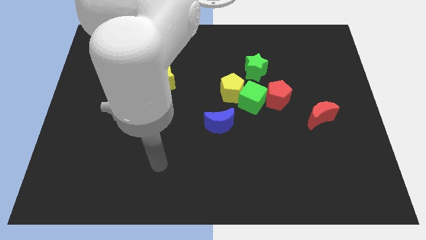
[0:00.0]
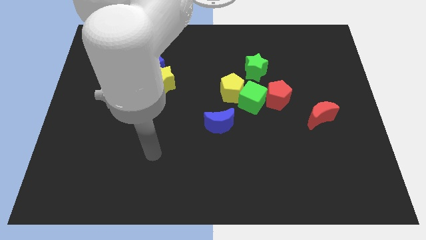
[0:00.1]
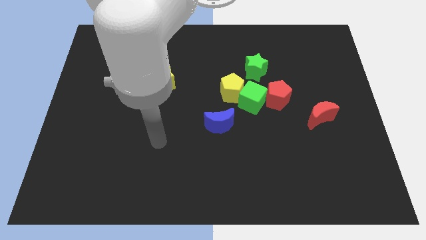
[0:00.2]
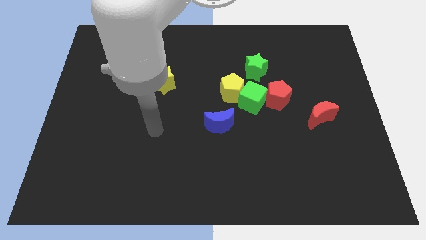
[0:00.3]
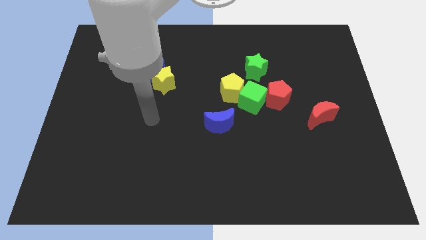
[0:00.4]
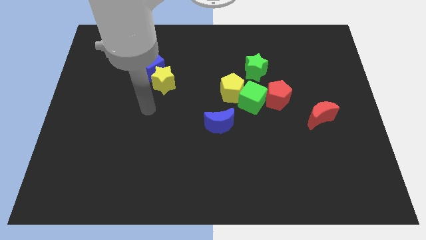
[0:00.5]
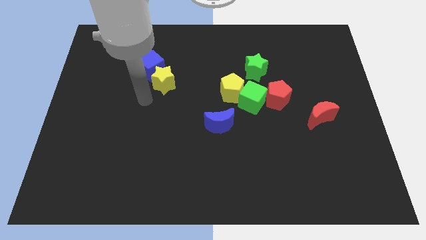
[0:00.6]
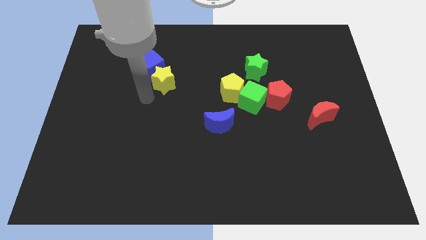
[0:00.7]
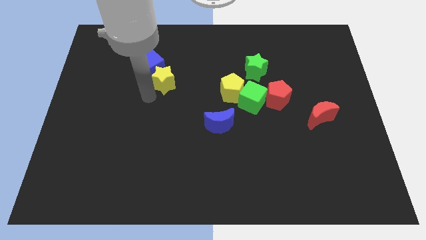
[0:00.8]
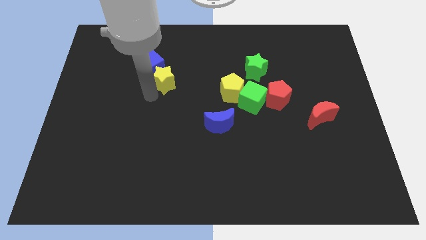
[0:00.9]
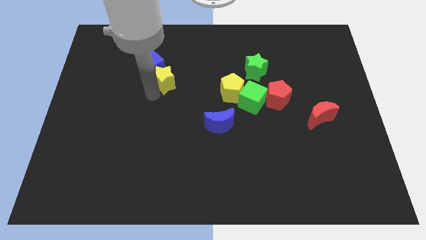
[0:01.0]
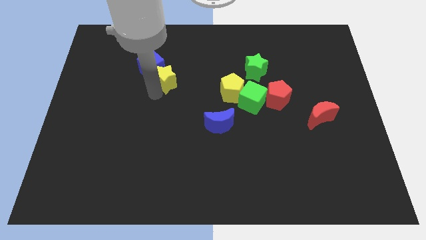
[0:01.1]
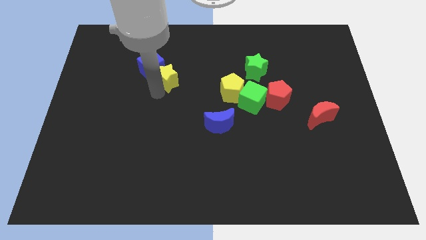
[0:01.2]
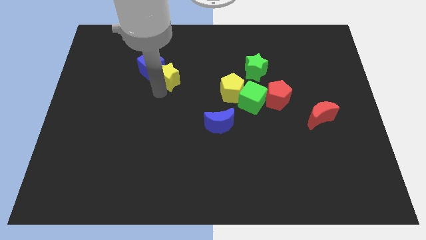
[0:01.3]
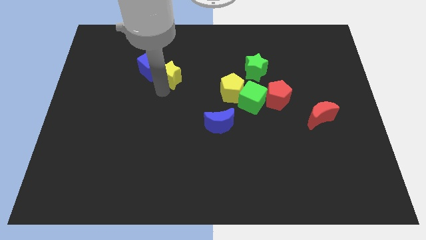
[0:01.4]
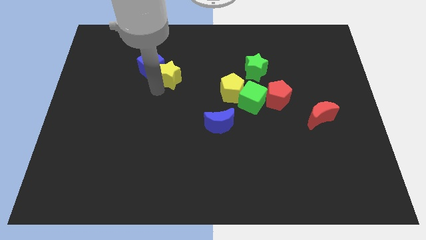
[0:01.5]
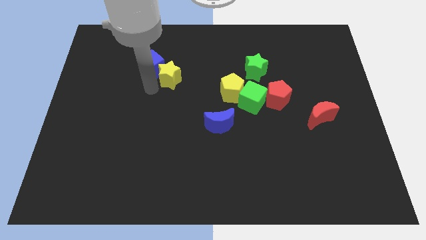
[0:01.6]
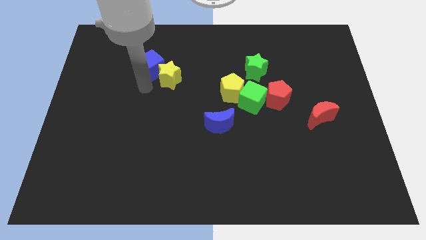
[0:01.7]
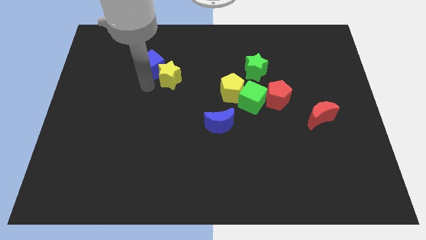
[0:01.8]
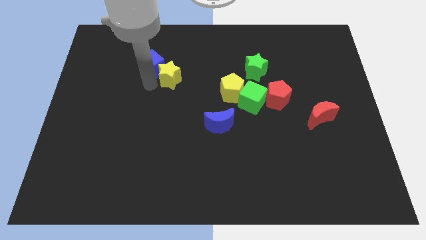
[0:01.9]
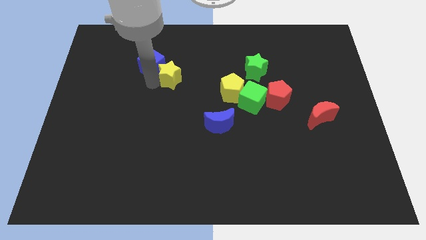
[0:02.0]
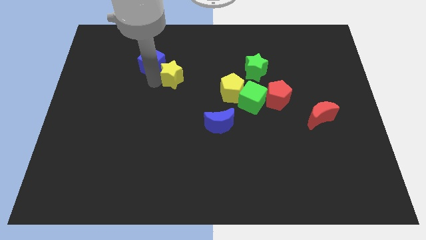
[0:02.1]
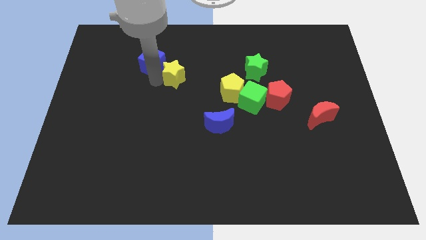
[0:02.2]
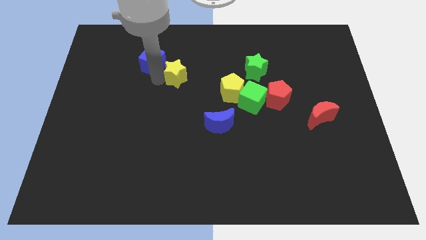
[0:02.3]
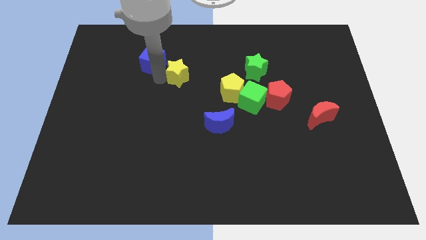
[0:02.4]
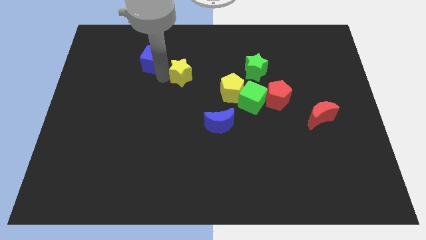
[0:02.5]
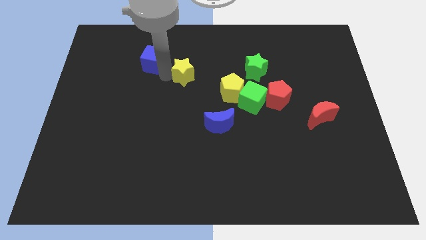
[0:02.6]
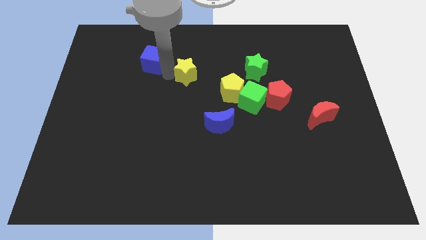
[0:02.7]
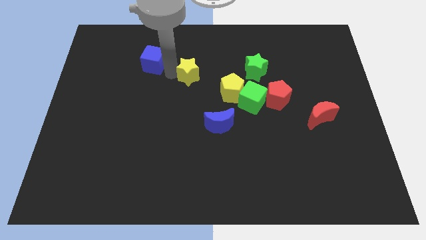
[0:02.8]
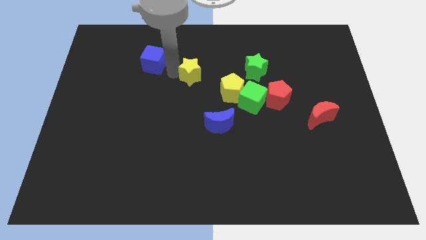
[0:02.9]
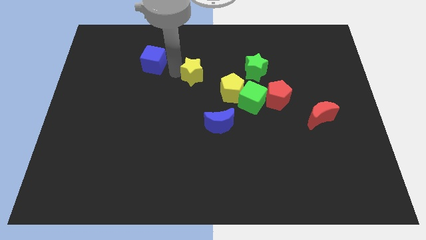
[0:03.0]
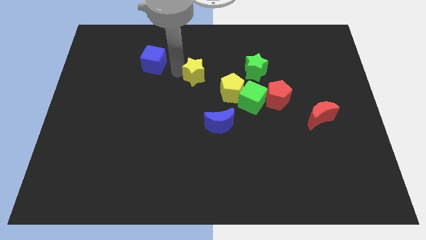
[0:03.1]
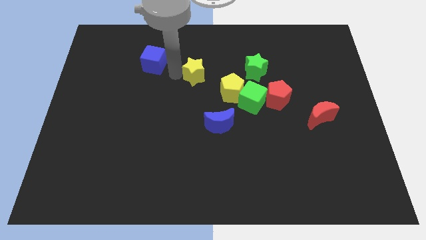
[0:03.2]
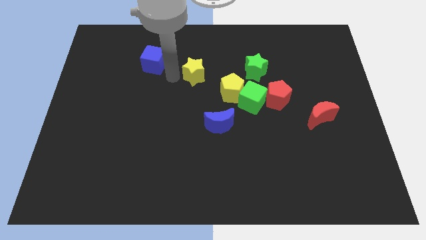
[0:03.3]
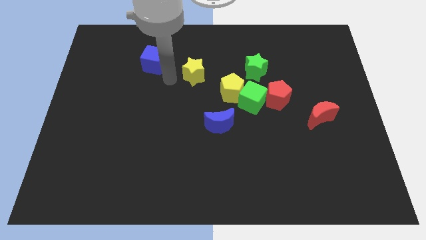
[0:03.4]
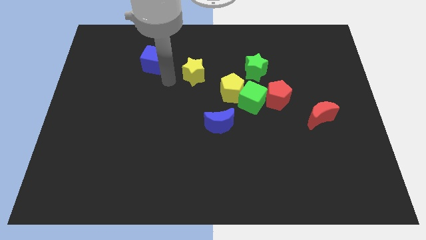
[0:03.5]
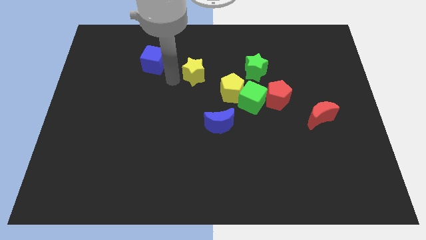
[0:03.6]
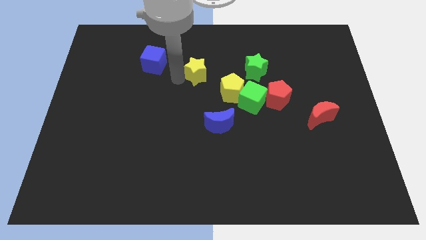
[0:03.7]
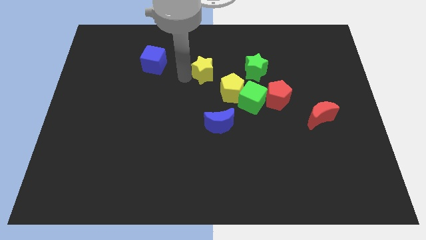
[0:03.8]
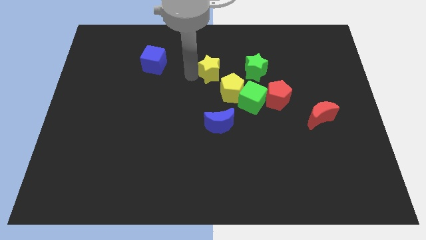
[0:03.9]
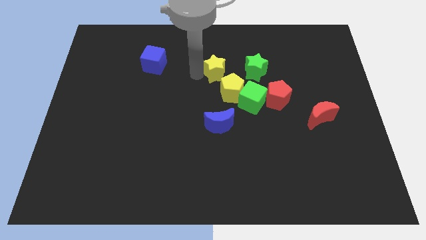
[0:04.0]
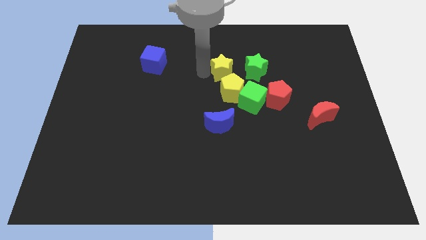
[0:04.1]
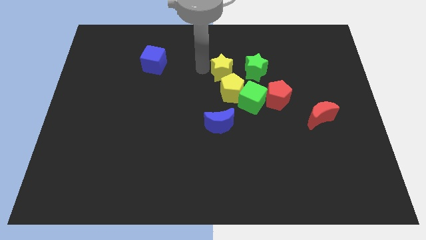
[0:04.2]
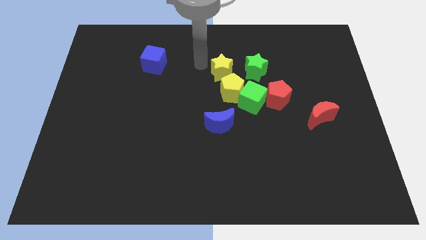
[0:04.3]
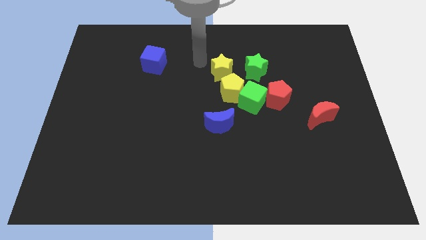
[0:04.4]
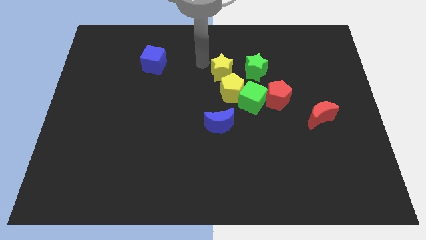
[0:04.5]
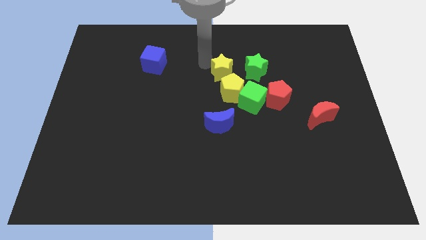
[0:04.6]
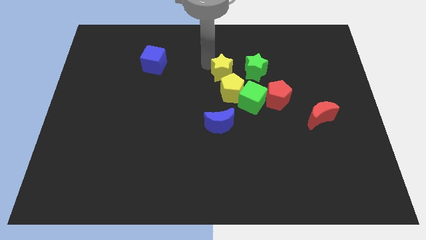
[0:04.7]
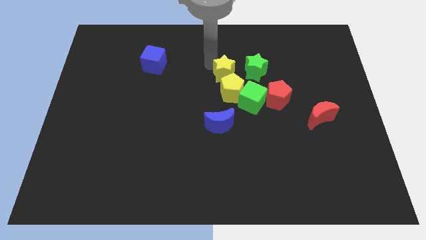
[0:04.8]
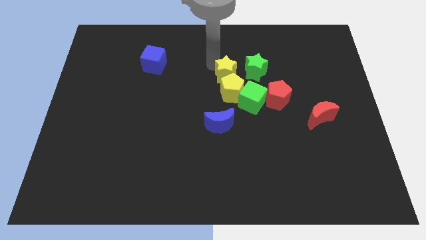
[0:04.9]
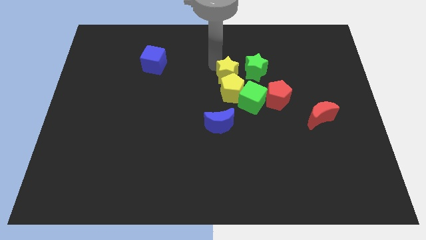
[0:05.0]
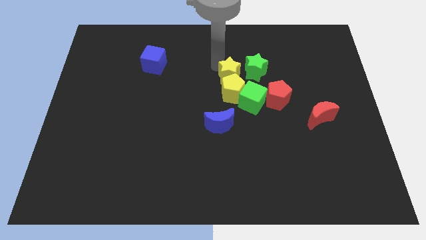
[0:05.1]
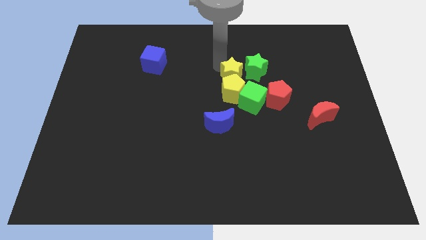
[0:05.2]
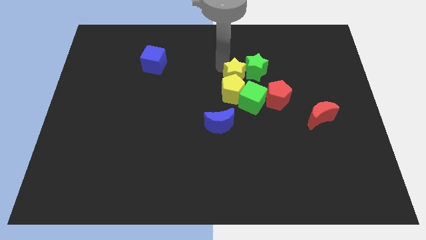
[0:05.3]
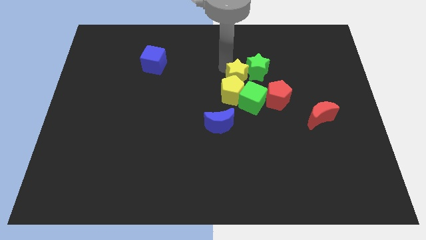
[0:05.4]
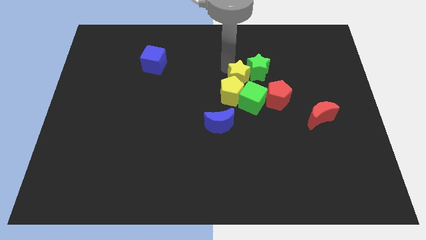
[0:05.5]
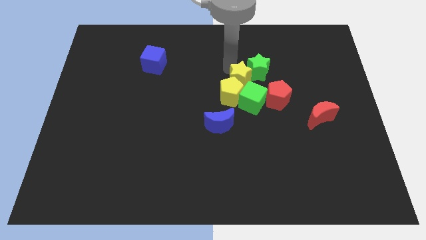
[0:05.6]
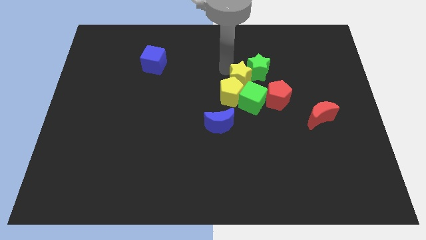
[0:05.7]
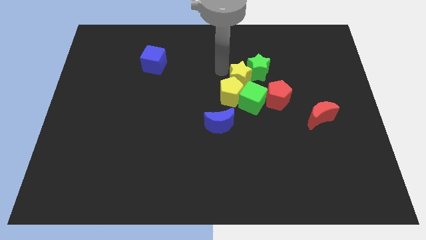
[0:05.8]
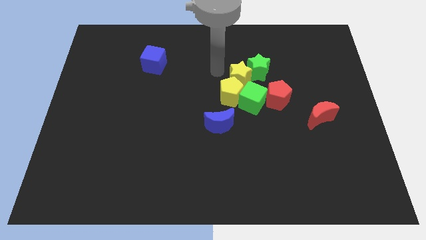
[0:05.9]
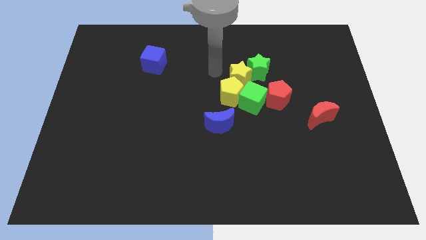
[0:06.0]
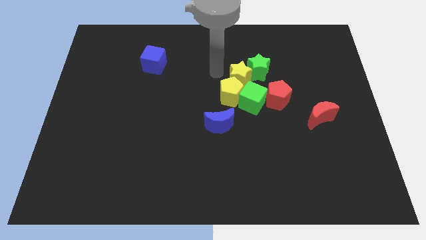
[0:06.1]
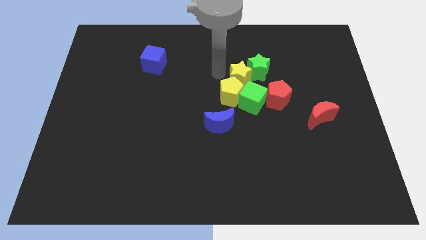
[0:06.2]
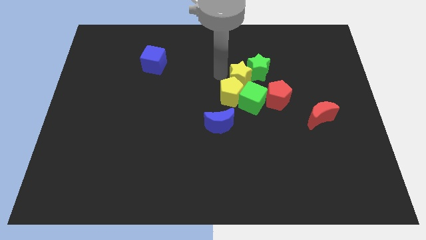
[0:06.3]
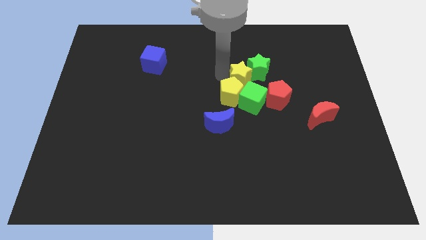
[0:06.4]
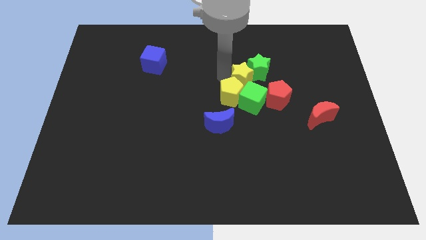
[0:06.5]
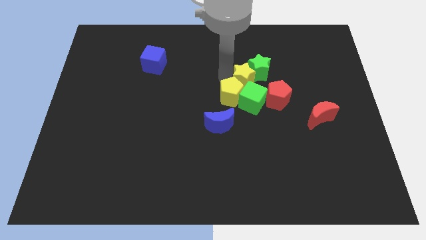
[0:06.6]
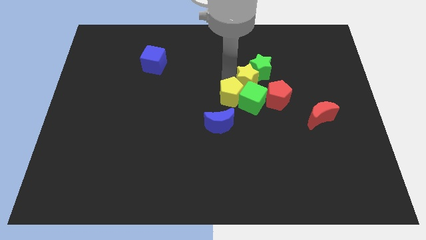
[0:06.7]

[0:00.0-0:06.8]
put the yellow star to the right side of the yellow pentagon
